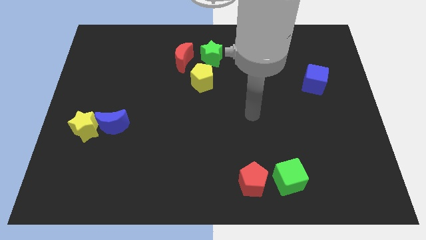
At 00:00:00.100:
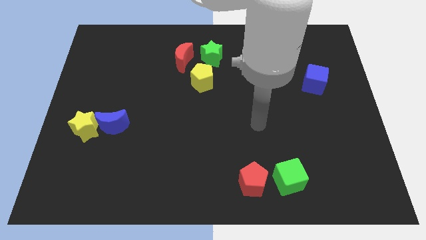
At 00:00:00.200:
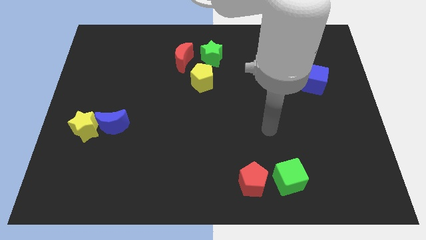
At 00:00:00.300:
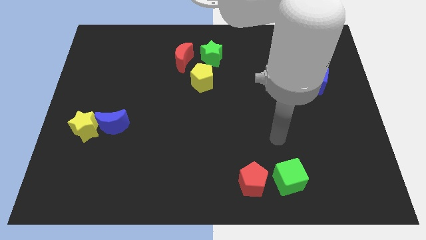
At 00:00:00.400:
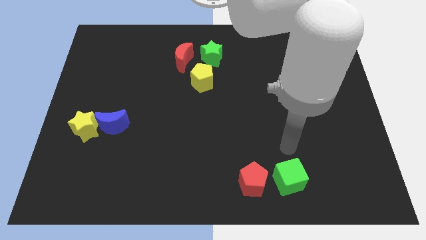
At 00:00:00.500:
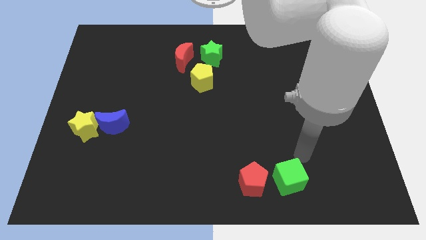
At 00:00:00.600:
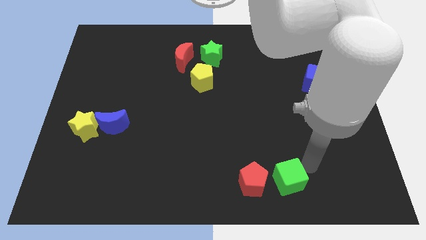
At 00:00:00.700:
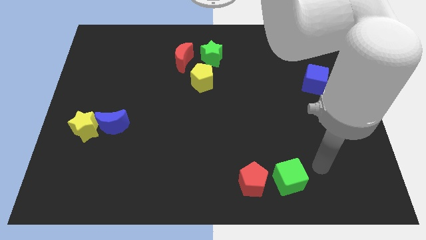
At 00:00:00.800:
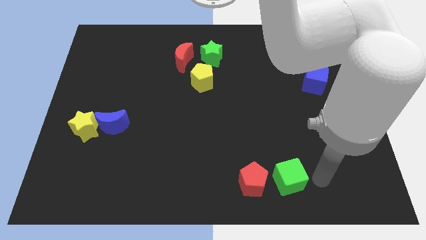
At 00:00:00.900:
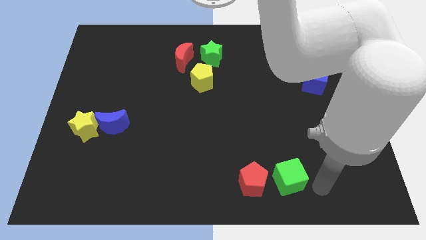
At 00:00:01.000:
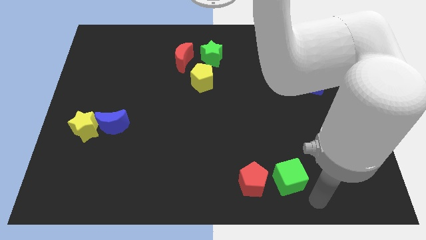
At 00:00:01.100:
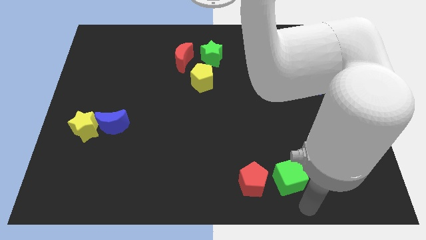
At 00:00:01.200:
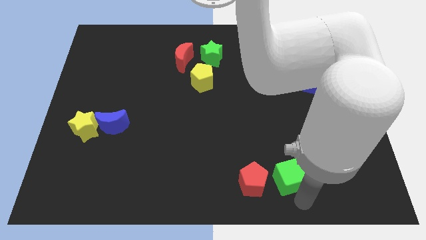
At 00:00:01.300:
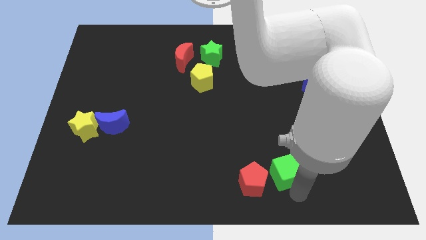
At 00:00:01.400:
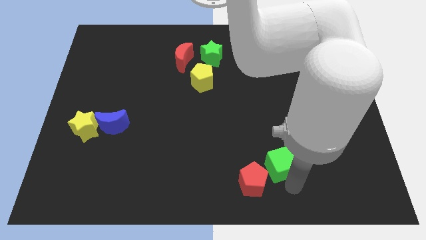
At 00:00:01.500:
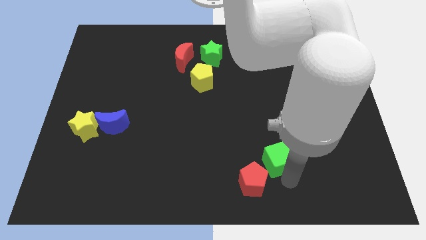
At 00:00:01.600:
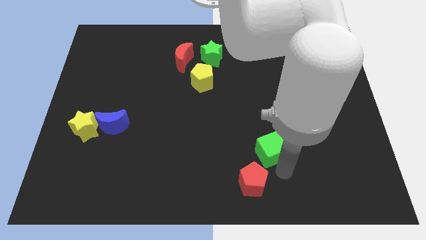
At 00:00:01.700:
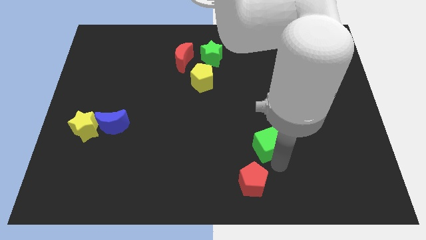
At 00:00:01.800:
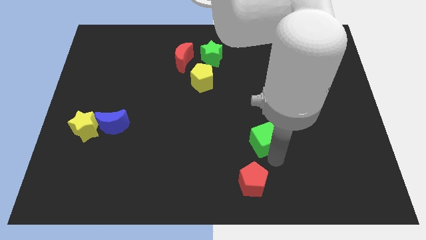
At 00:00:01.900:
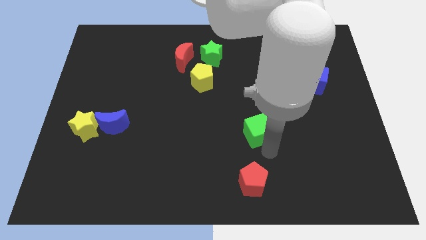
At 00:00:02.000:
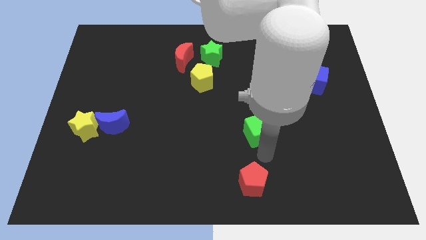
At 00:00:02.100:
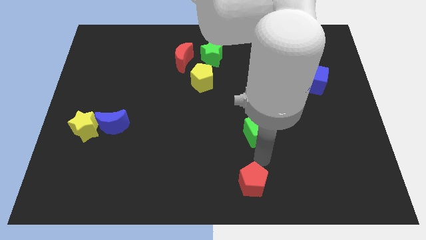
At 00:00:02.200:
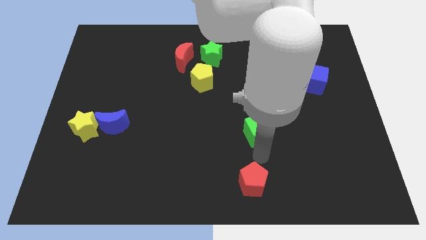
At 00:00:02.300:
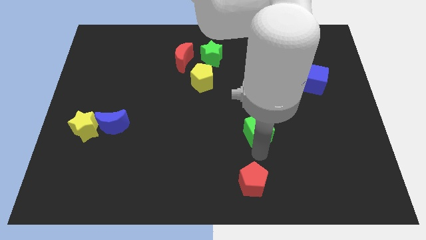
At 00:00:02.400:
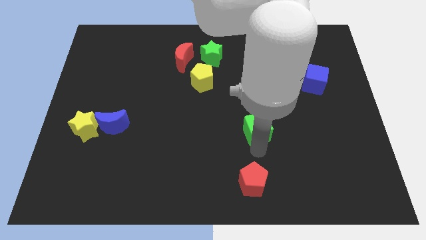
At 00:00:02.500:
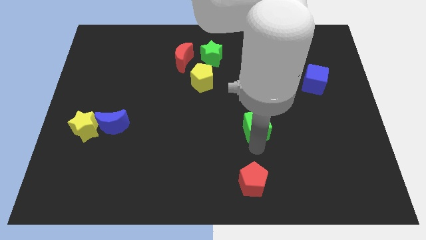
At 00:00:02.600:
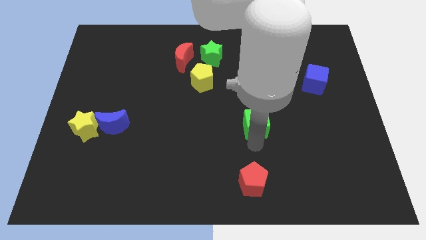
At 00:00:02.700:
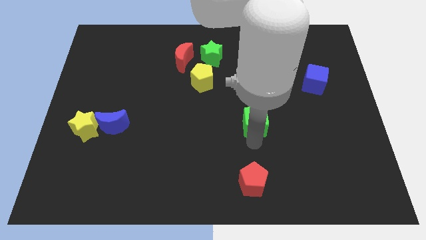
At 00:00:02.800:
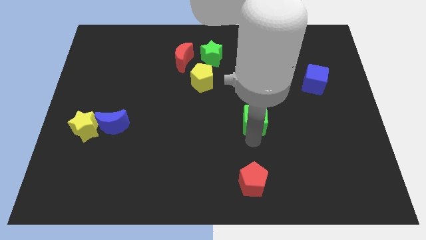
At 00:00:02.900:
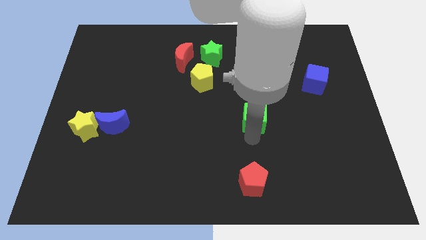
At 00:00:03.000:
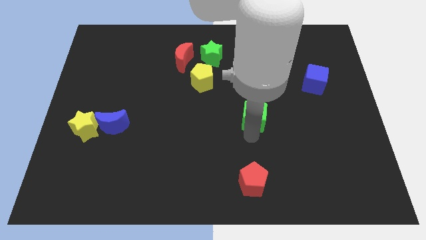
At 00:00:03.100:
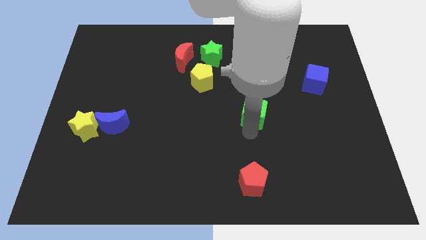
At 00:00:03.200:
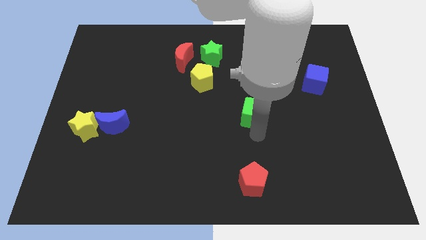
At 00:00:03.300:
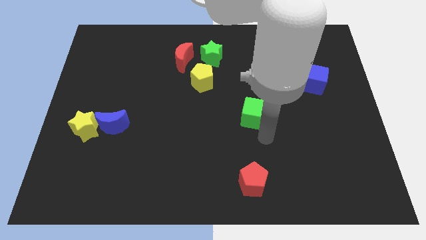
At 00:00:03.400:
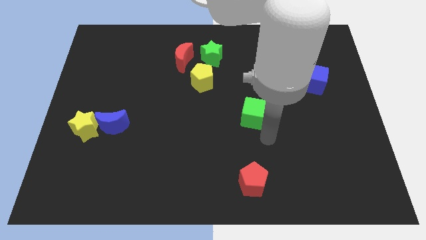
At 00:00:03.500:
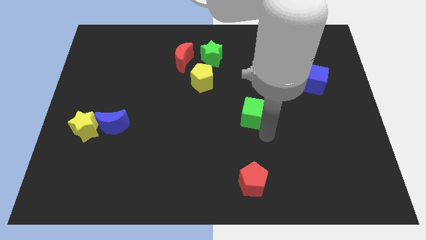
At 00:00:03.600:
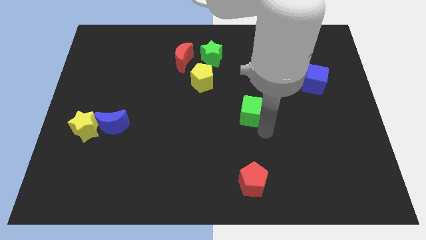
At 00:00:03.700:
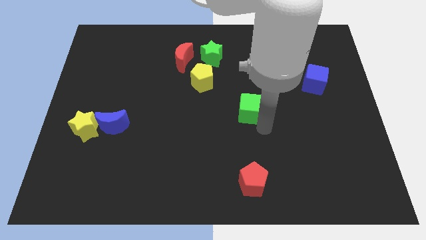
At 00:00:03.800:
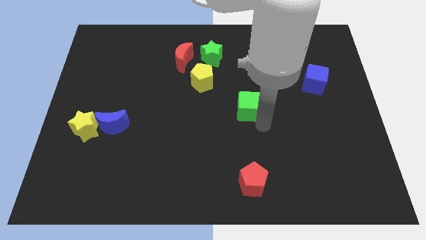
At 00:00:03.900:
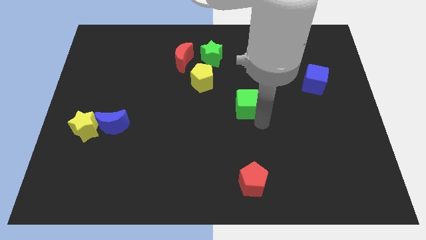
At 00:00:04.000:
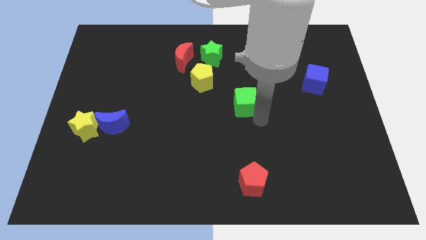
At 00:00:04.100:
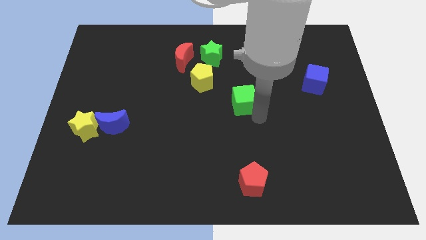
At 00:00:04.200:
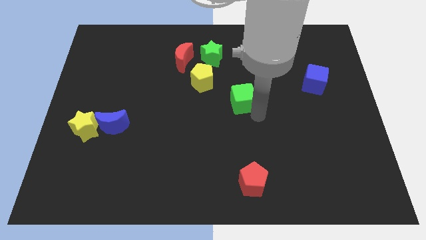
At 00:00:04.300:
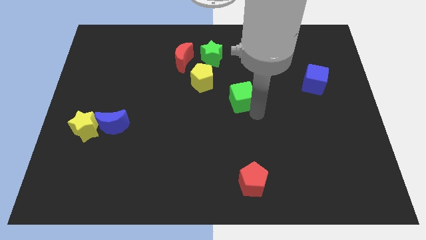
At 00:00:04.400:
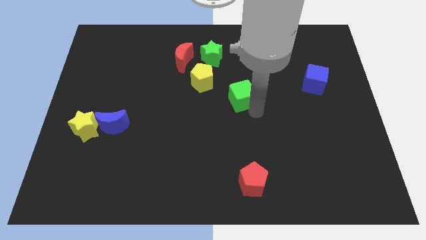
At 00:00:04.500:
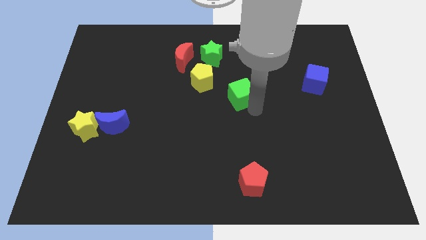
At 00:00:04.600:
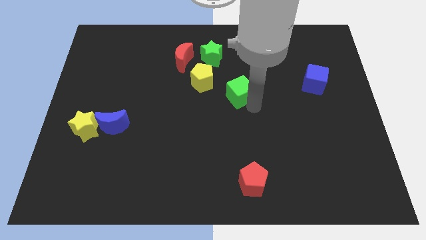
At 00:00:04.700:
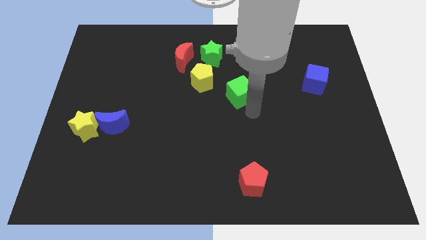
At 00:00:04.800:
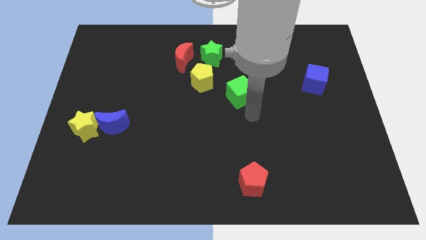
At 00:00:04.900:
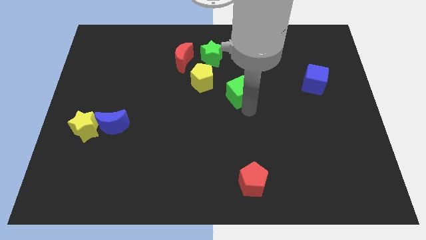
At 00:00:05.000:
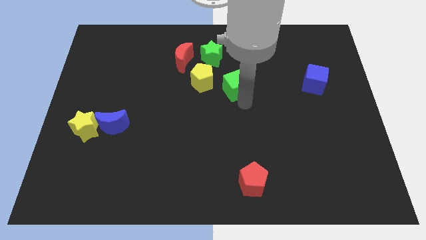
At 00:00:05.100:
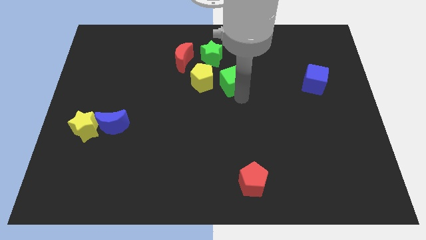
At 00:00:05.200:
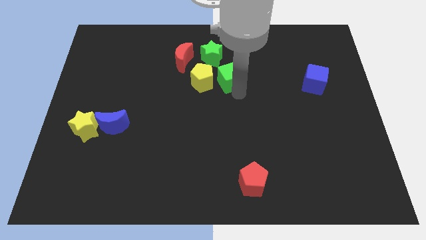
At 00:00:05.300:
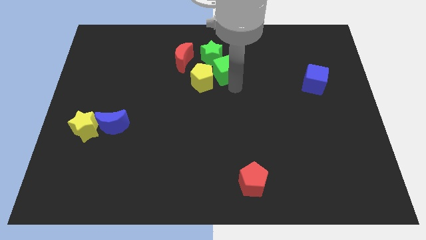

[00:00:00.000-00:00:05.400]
push the green cube towards the green star

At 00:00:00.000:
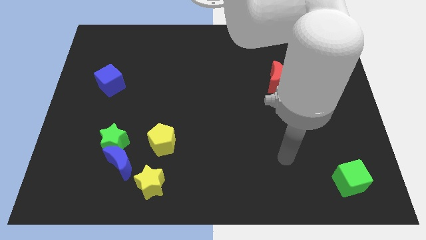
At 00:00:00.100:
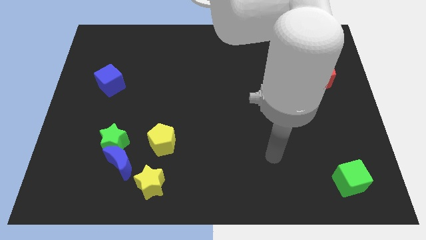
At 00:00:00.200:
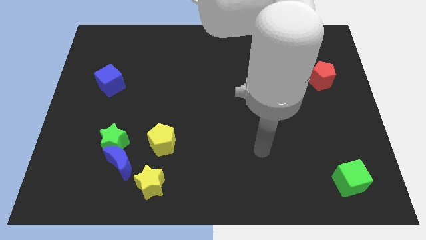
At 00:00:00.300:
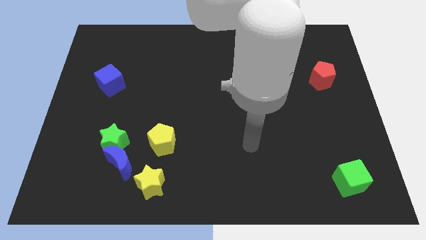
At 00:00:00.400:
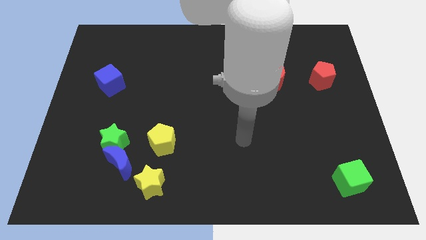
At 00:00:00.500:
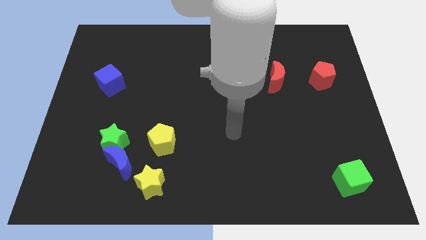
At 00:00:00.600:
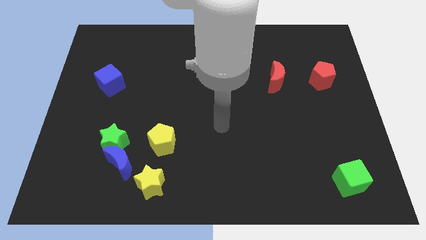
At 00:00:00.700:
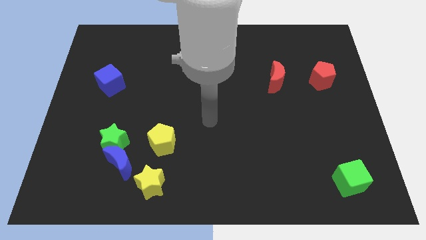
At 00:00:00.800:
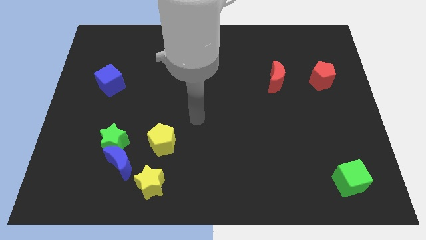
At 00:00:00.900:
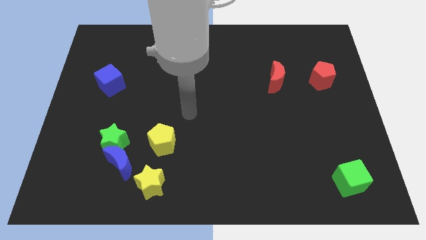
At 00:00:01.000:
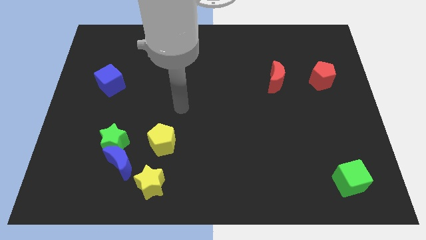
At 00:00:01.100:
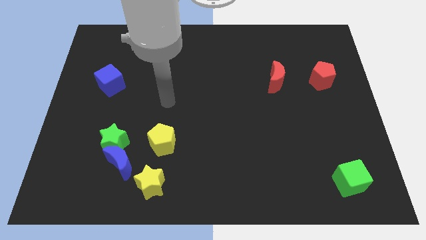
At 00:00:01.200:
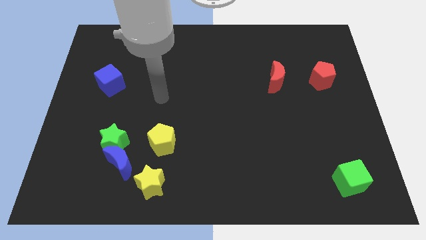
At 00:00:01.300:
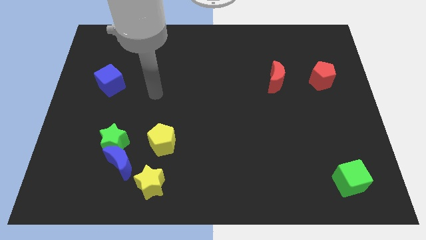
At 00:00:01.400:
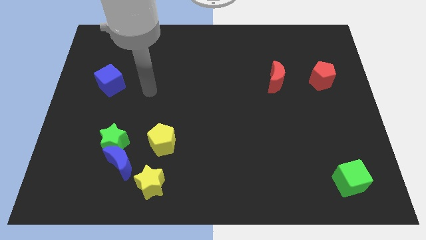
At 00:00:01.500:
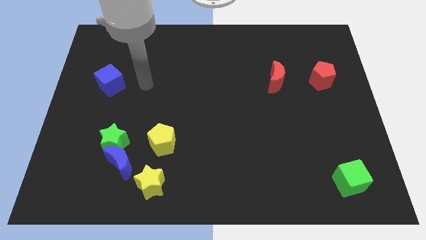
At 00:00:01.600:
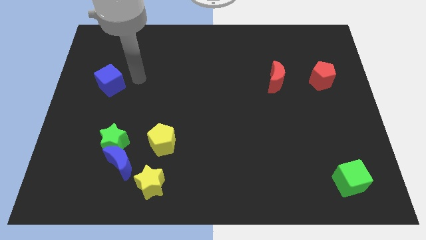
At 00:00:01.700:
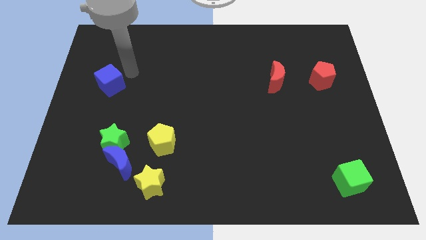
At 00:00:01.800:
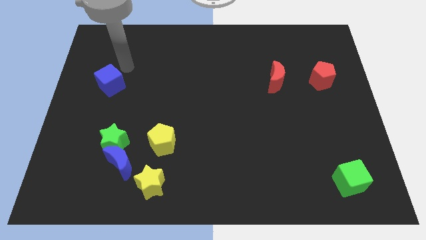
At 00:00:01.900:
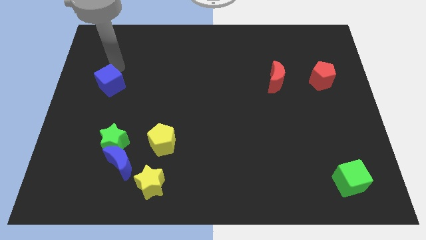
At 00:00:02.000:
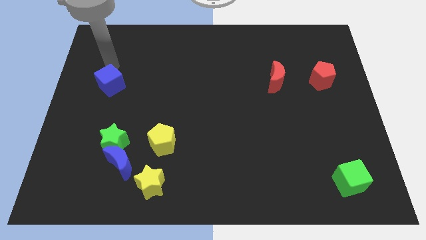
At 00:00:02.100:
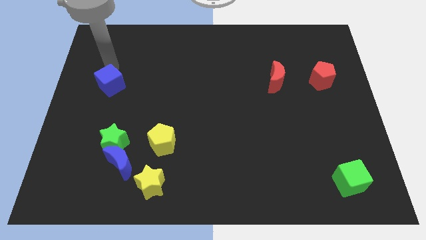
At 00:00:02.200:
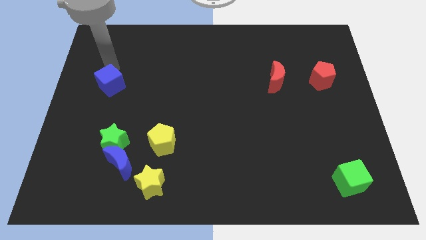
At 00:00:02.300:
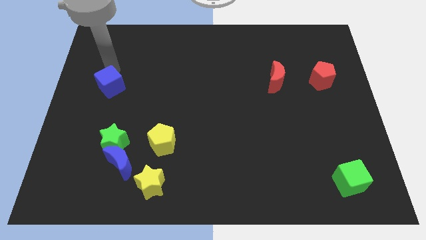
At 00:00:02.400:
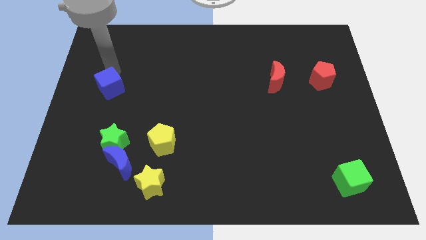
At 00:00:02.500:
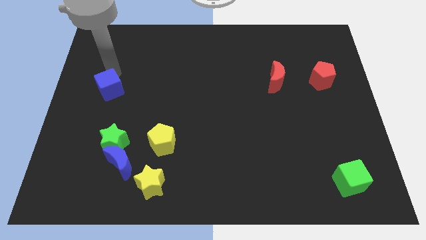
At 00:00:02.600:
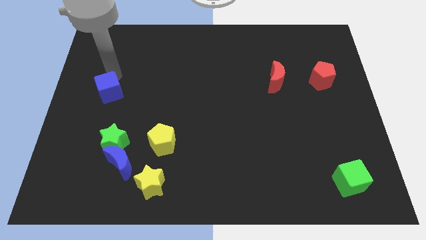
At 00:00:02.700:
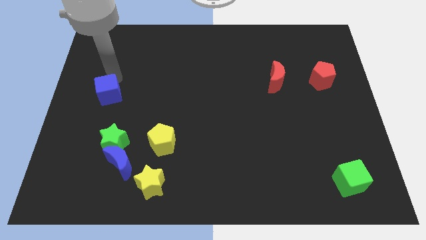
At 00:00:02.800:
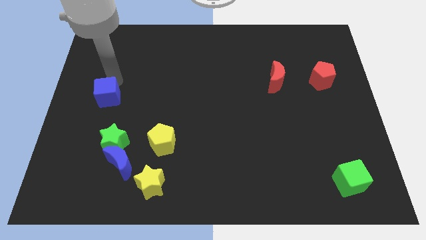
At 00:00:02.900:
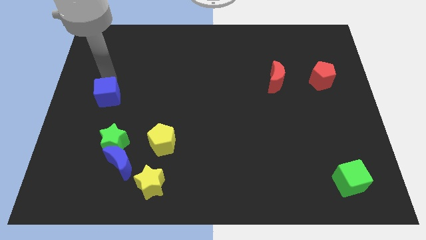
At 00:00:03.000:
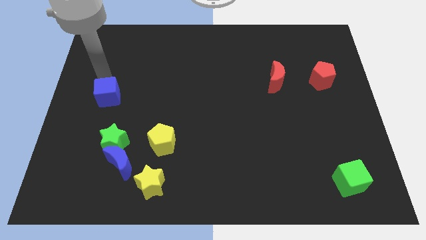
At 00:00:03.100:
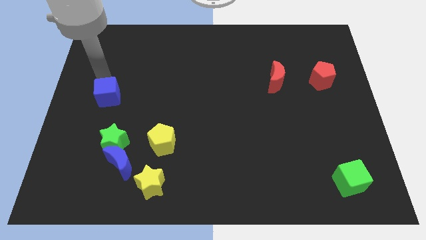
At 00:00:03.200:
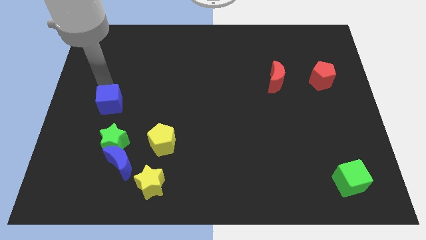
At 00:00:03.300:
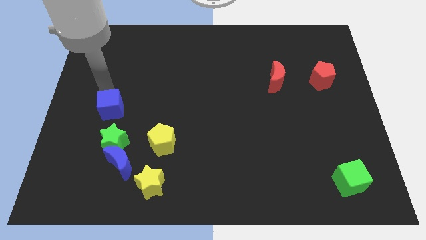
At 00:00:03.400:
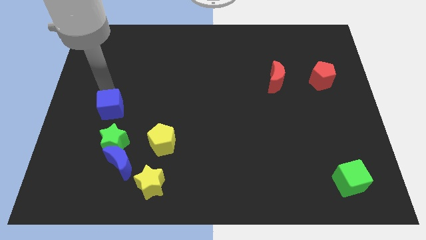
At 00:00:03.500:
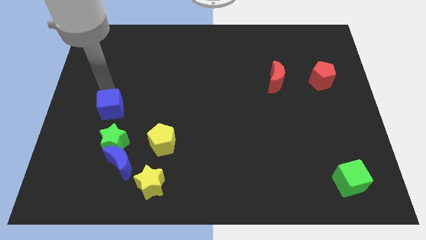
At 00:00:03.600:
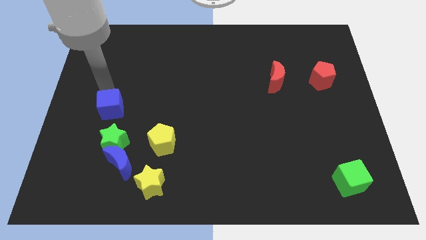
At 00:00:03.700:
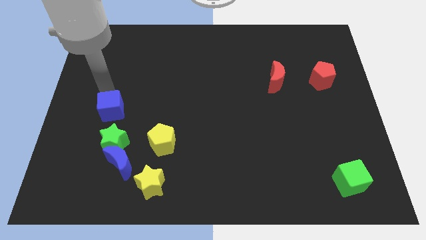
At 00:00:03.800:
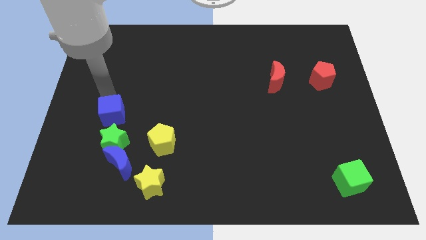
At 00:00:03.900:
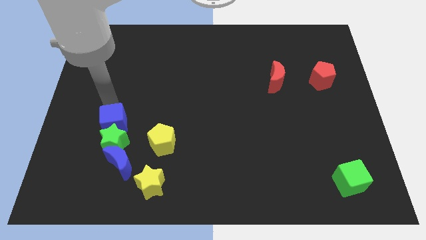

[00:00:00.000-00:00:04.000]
move the blue cube towards the green star
